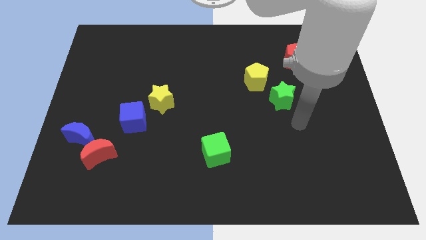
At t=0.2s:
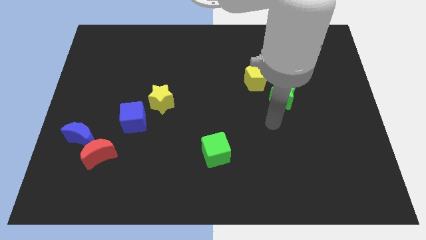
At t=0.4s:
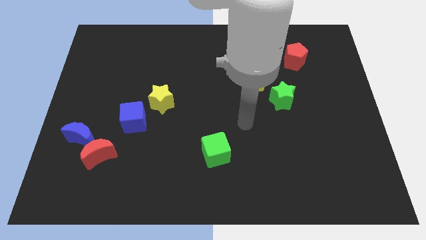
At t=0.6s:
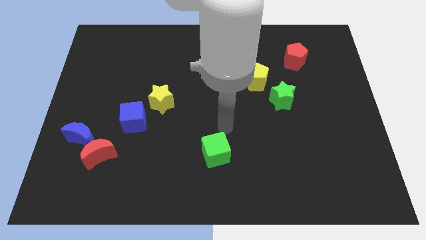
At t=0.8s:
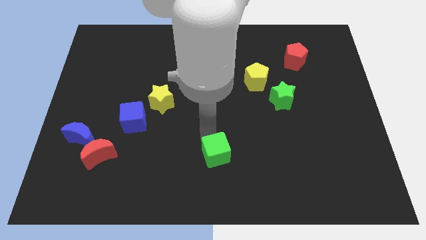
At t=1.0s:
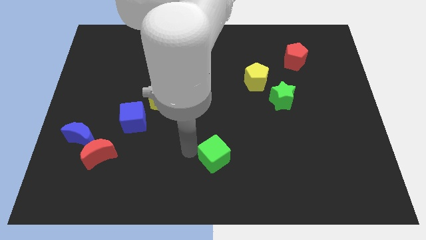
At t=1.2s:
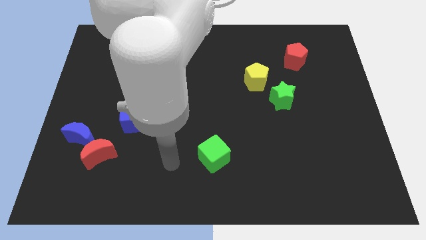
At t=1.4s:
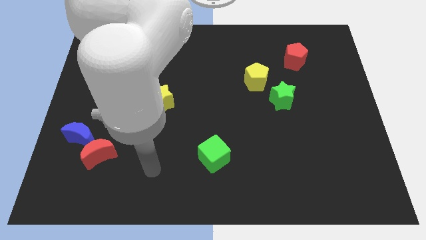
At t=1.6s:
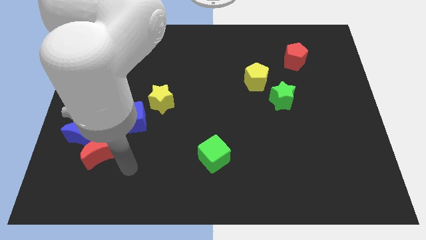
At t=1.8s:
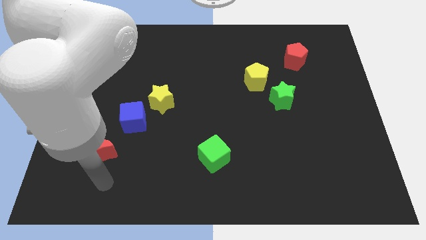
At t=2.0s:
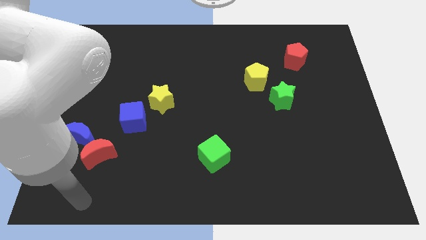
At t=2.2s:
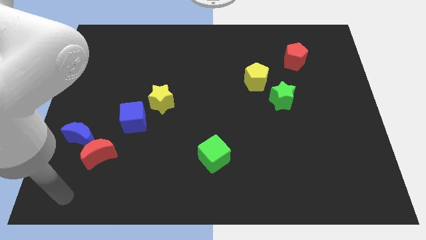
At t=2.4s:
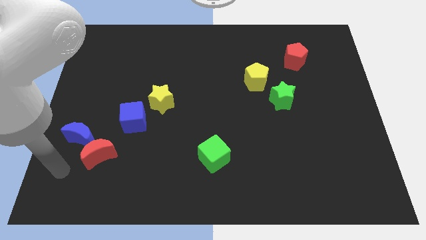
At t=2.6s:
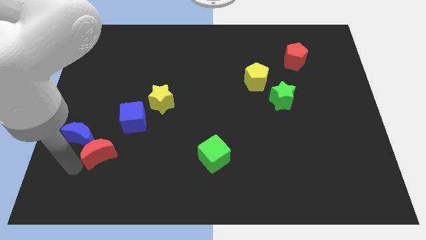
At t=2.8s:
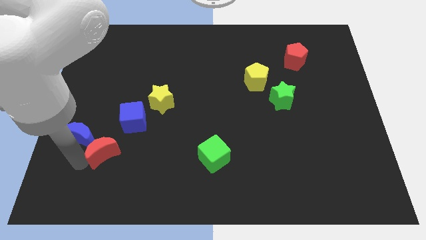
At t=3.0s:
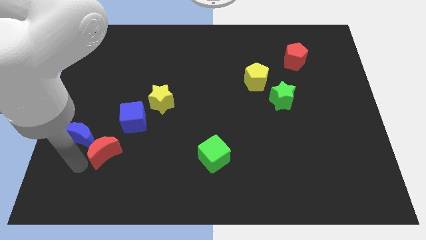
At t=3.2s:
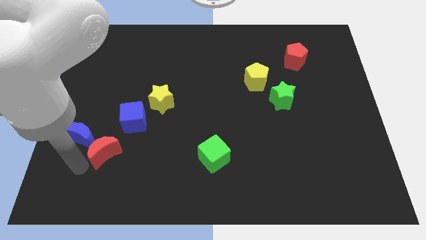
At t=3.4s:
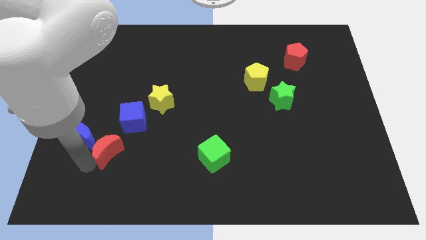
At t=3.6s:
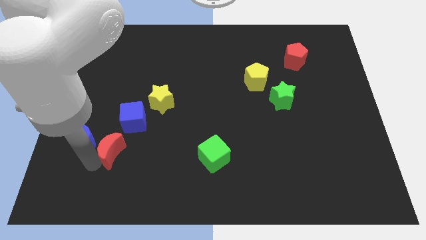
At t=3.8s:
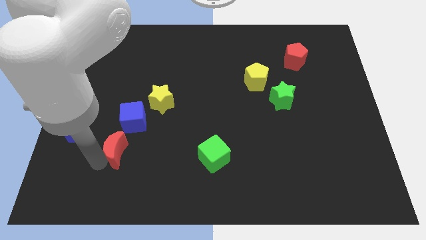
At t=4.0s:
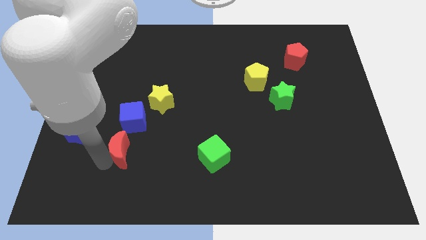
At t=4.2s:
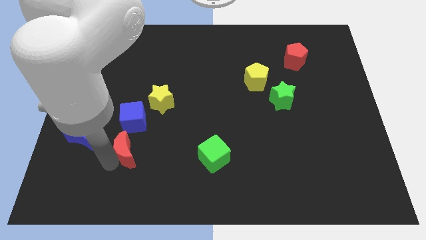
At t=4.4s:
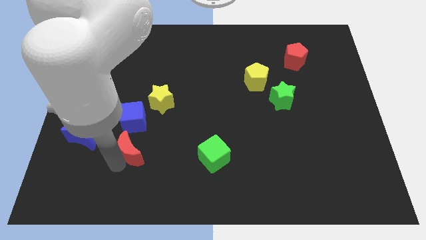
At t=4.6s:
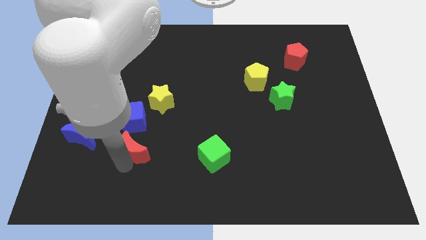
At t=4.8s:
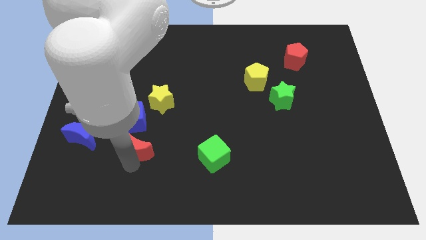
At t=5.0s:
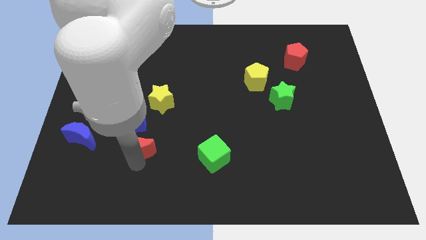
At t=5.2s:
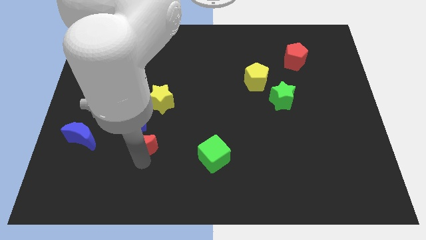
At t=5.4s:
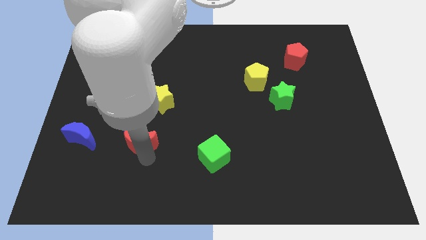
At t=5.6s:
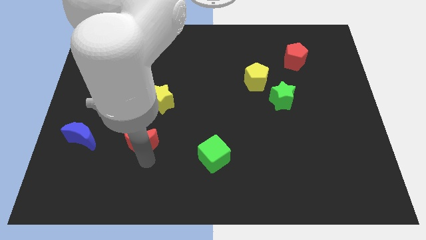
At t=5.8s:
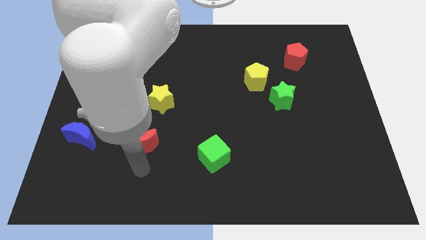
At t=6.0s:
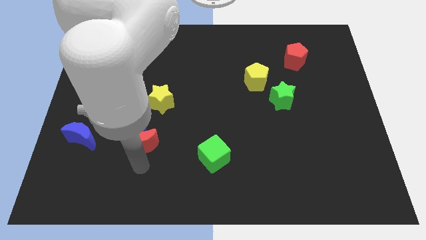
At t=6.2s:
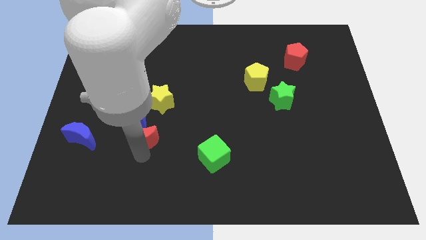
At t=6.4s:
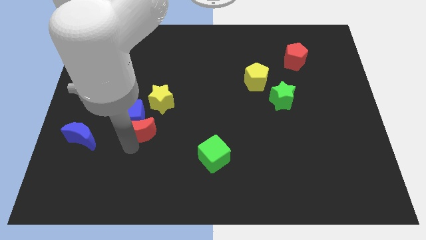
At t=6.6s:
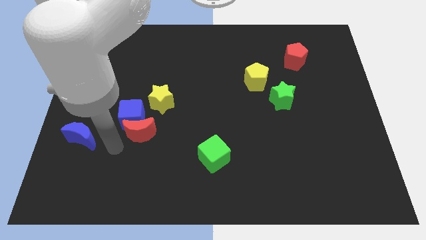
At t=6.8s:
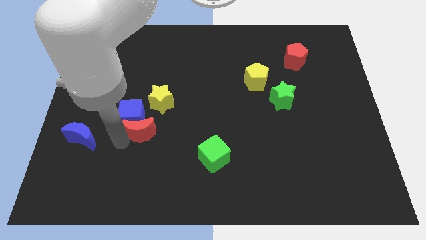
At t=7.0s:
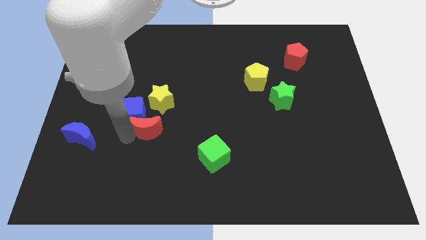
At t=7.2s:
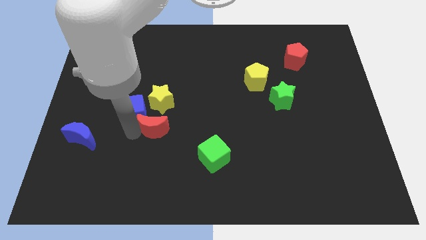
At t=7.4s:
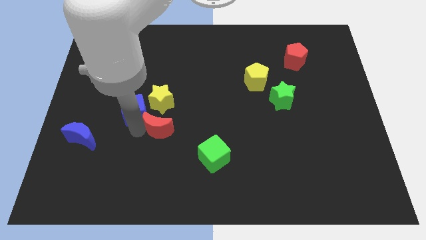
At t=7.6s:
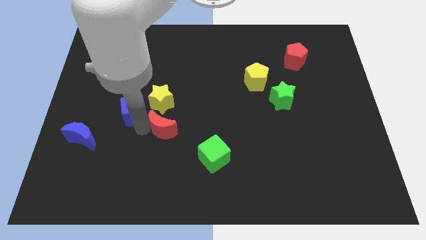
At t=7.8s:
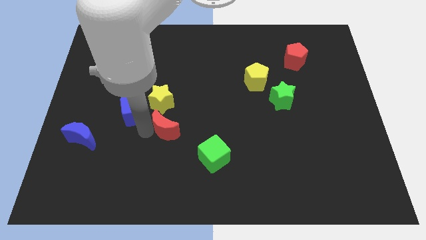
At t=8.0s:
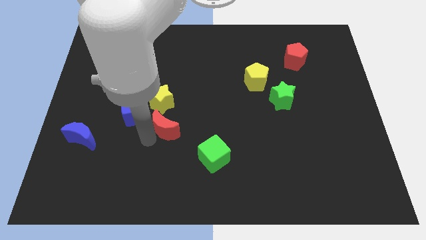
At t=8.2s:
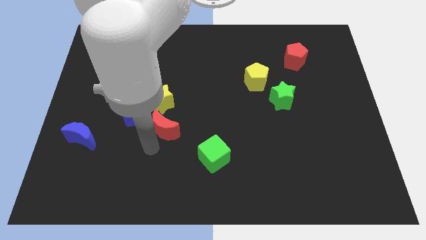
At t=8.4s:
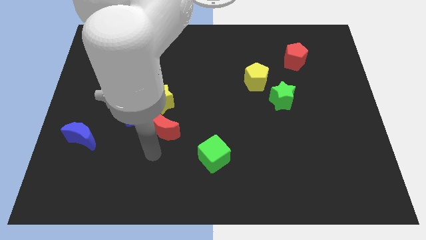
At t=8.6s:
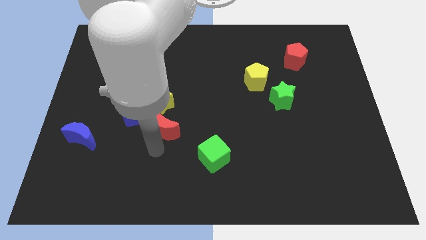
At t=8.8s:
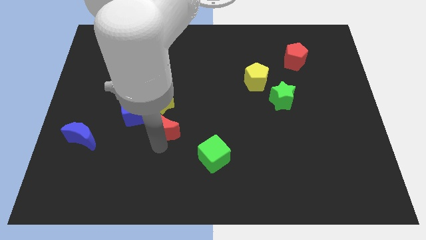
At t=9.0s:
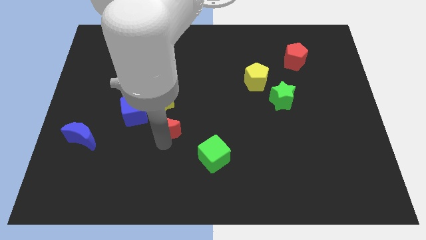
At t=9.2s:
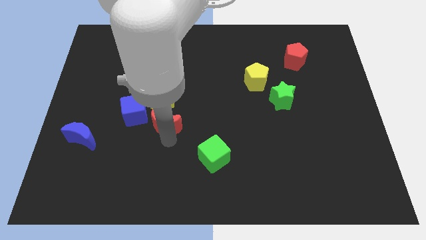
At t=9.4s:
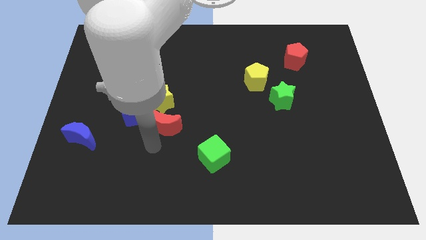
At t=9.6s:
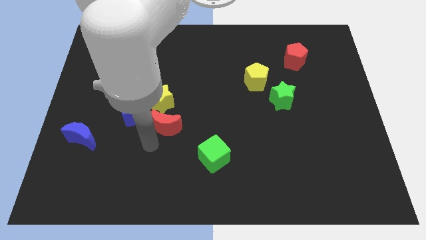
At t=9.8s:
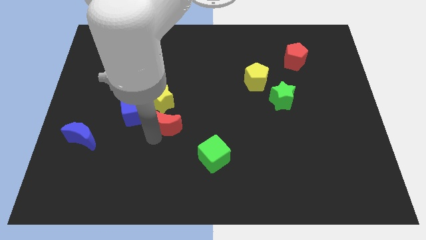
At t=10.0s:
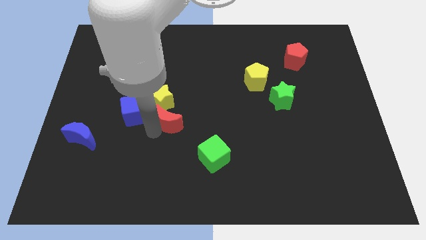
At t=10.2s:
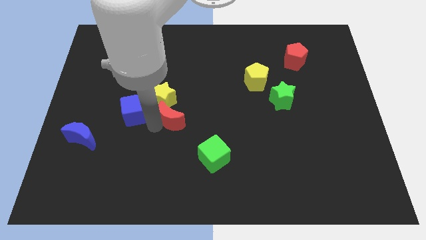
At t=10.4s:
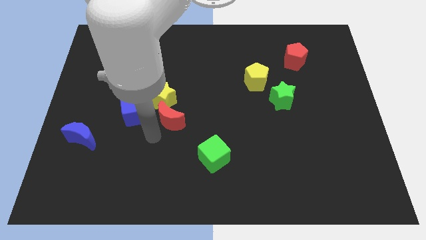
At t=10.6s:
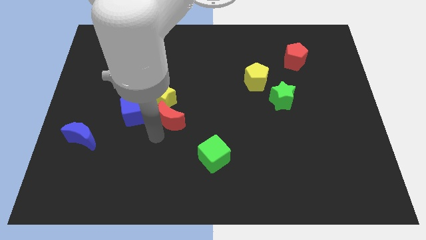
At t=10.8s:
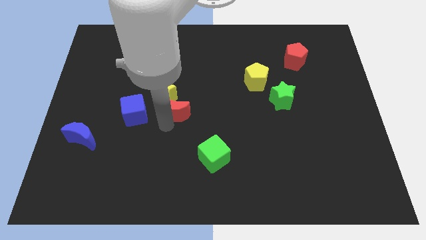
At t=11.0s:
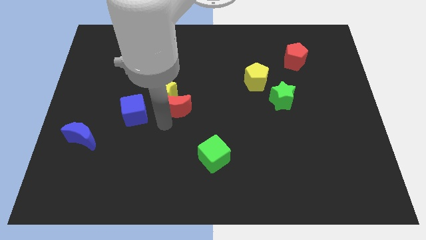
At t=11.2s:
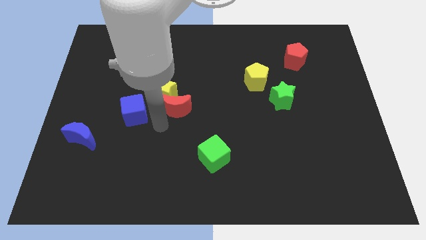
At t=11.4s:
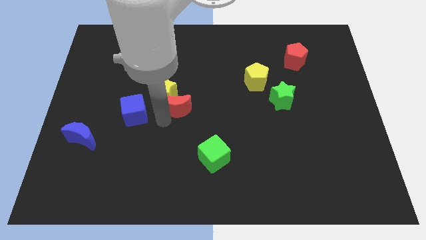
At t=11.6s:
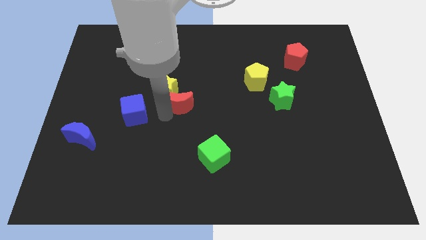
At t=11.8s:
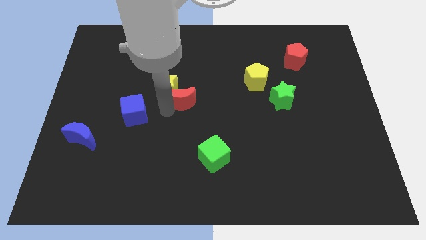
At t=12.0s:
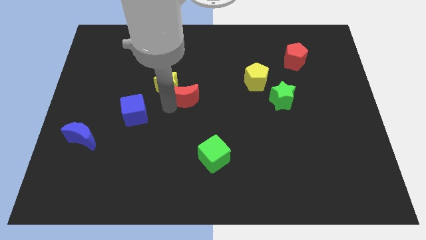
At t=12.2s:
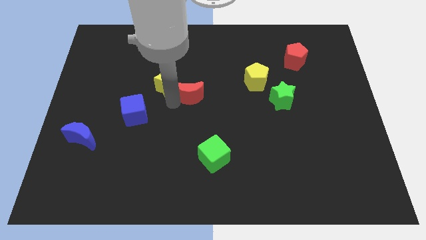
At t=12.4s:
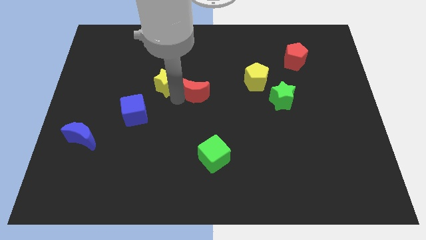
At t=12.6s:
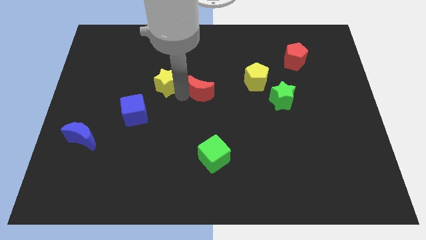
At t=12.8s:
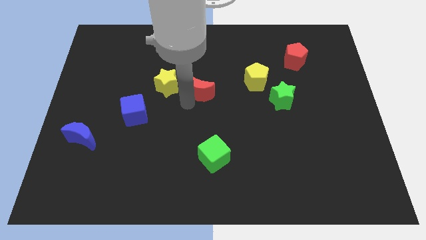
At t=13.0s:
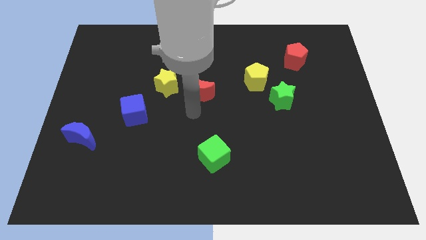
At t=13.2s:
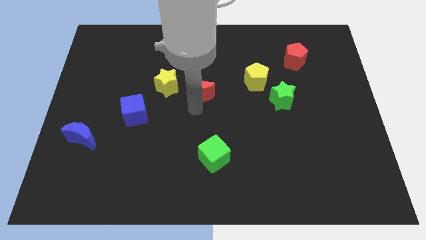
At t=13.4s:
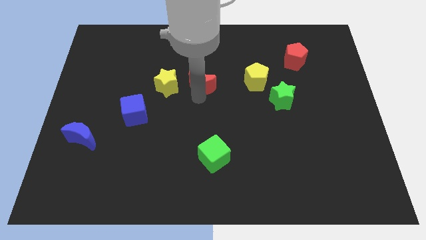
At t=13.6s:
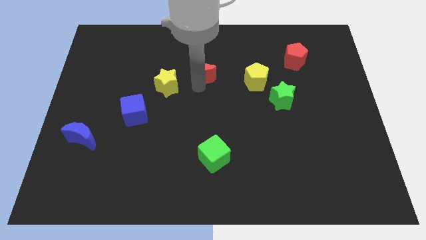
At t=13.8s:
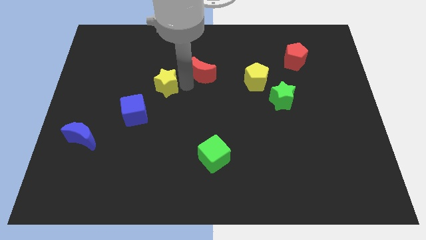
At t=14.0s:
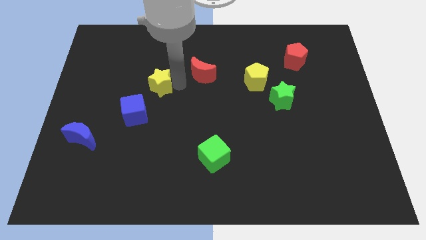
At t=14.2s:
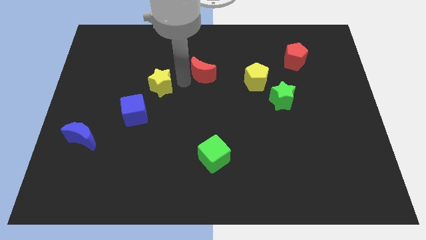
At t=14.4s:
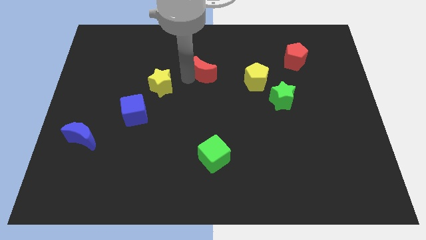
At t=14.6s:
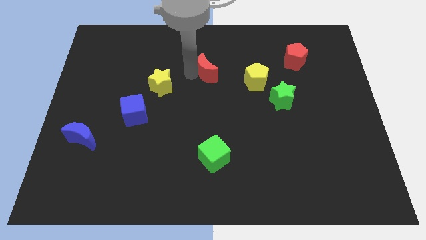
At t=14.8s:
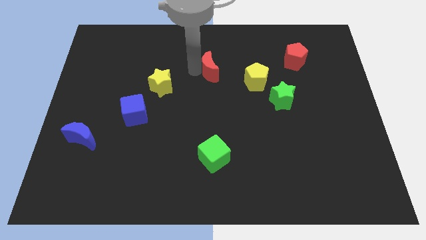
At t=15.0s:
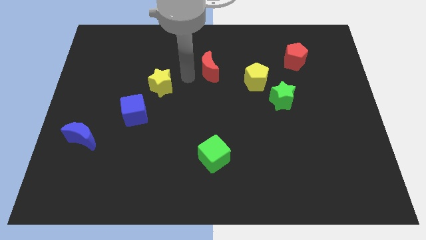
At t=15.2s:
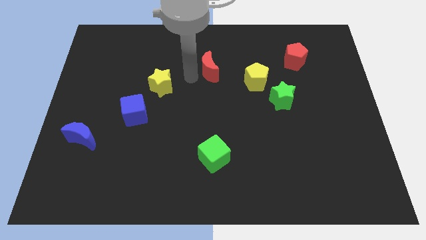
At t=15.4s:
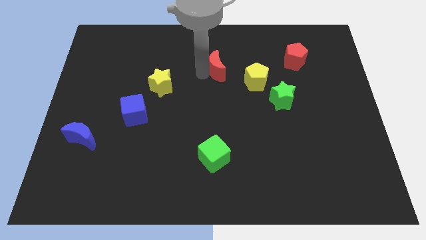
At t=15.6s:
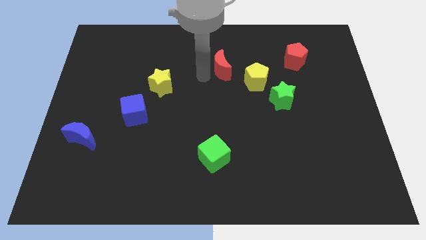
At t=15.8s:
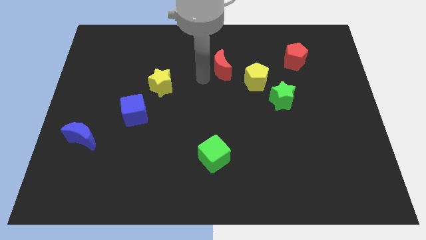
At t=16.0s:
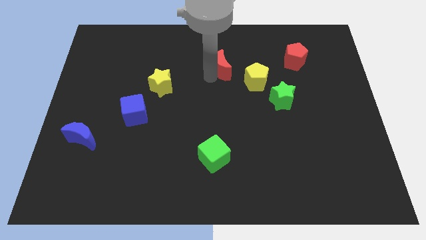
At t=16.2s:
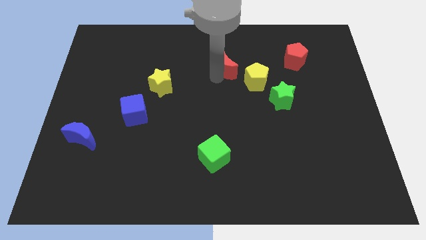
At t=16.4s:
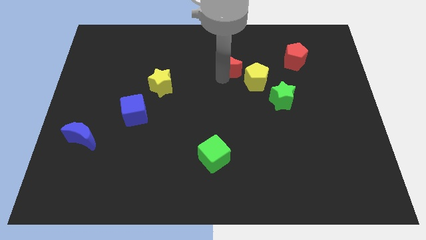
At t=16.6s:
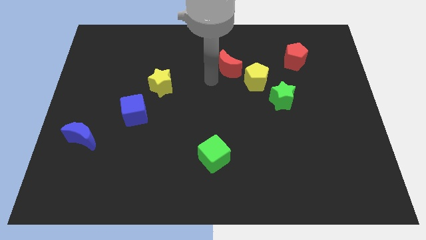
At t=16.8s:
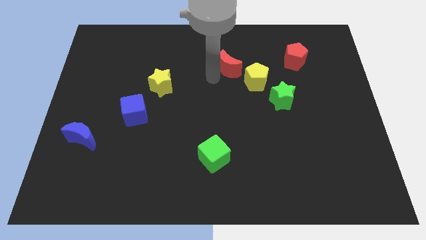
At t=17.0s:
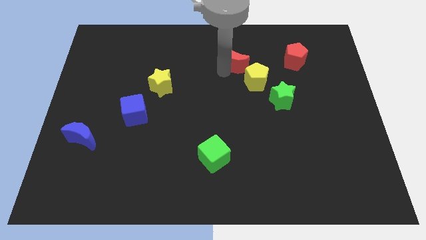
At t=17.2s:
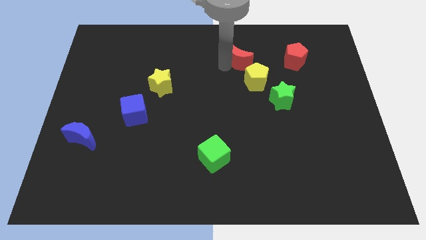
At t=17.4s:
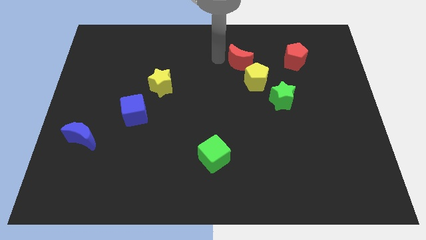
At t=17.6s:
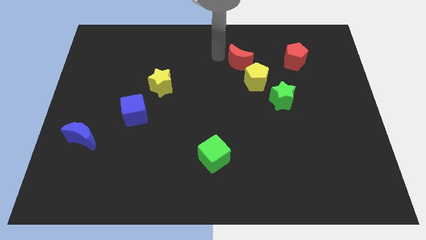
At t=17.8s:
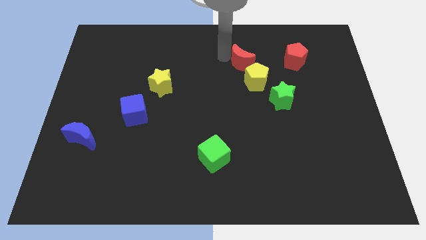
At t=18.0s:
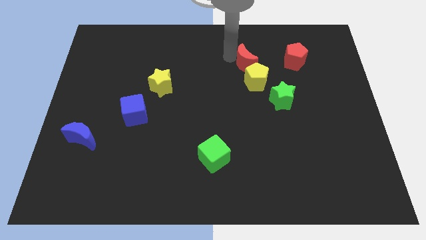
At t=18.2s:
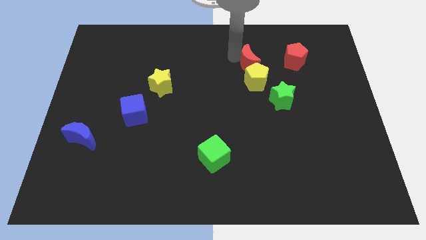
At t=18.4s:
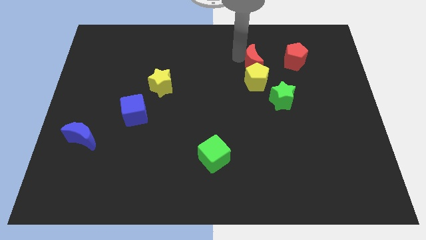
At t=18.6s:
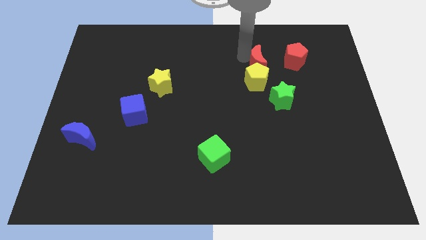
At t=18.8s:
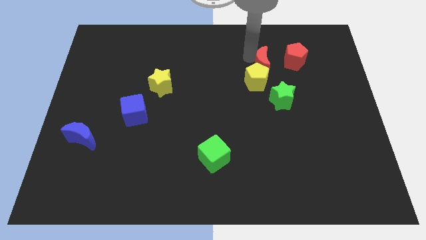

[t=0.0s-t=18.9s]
push the red moon diagonally down and to the left of the red pentagon
